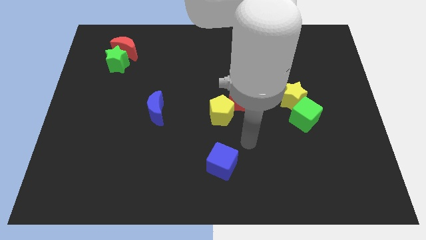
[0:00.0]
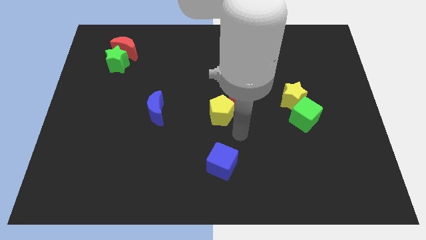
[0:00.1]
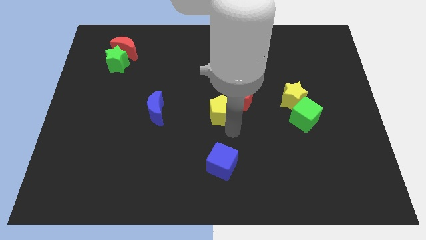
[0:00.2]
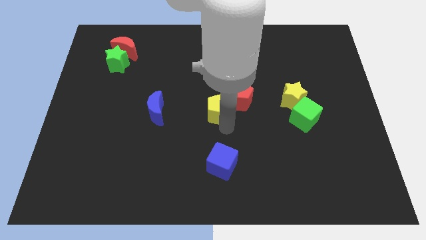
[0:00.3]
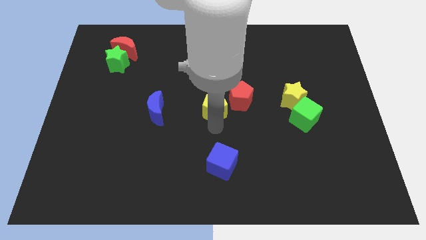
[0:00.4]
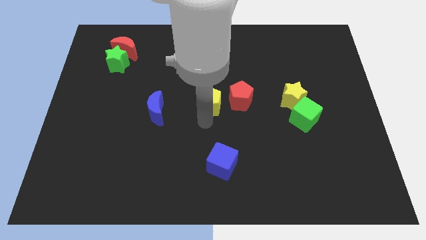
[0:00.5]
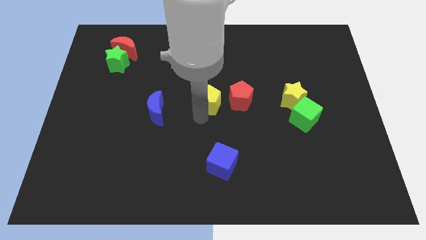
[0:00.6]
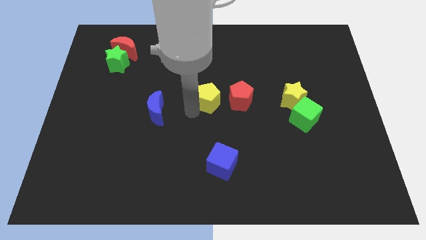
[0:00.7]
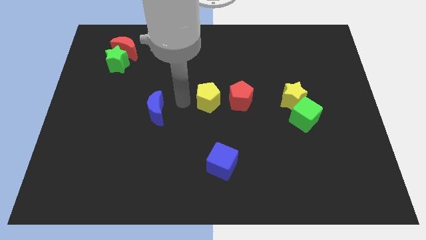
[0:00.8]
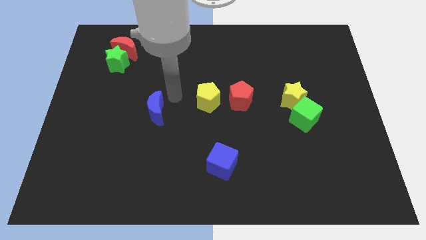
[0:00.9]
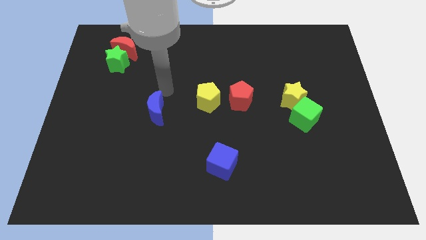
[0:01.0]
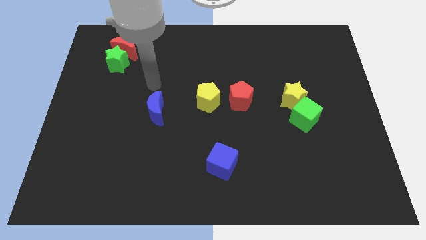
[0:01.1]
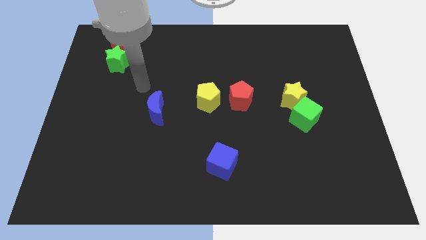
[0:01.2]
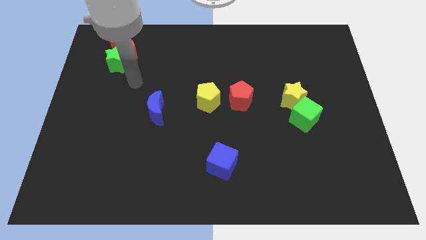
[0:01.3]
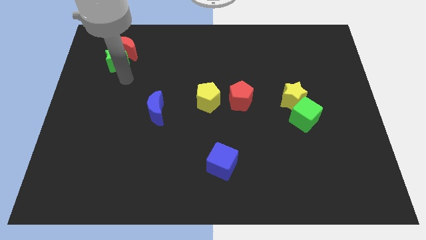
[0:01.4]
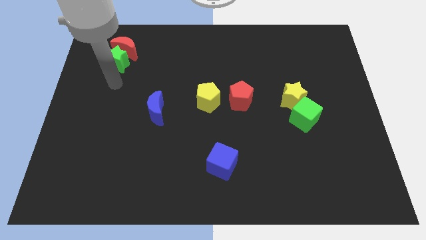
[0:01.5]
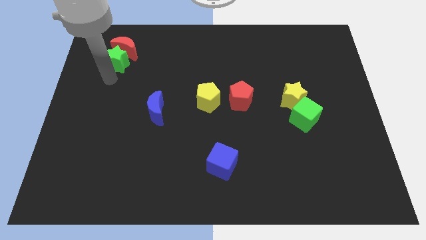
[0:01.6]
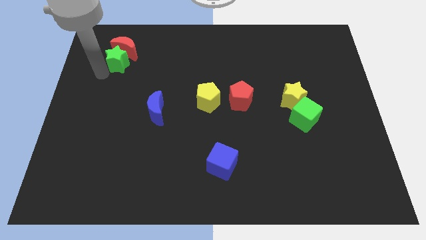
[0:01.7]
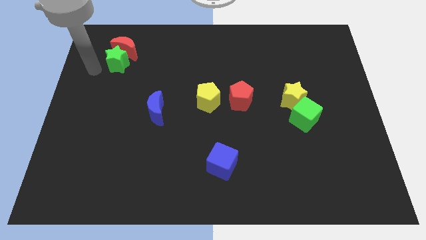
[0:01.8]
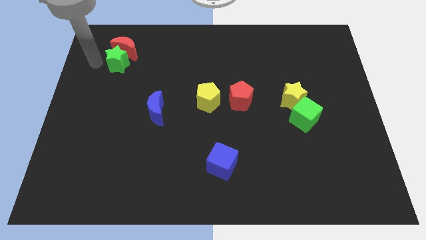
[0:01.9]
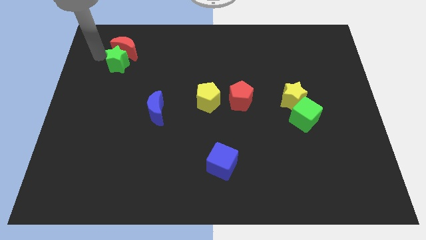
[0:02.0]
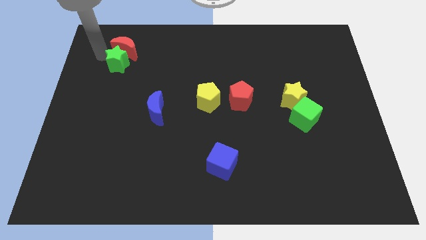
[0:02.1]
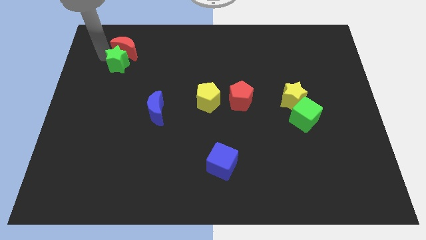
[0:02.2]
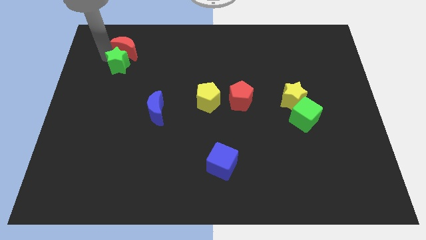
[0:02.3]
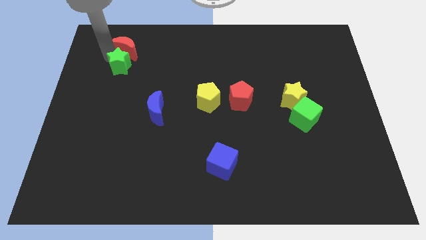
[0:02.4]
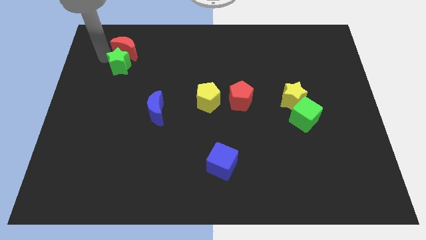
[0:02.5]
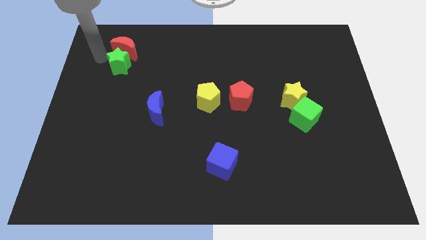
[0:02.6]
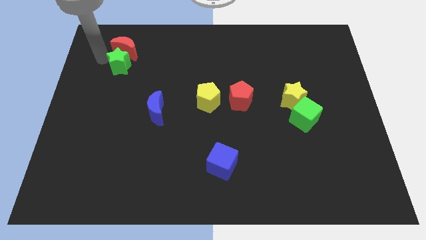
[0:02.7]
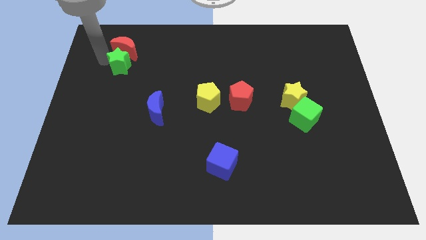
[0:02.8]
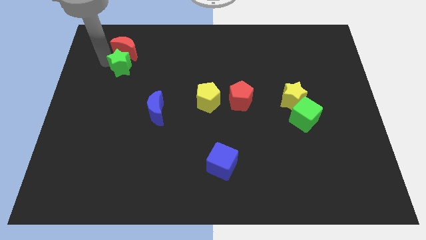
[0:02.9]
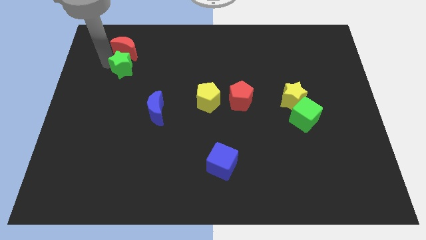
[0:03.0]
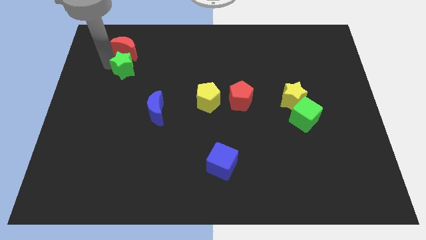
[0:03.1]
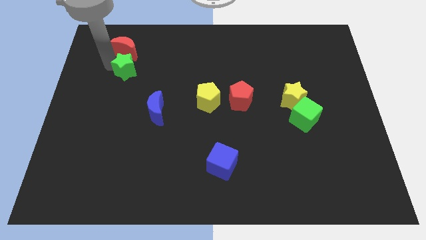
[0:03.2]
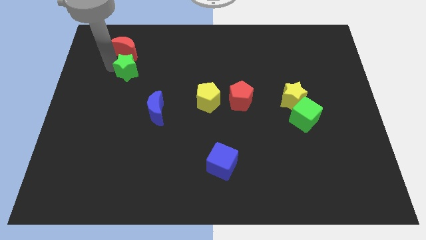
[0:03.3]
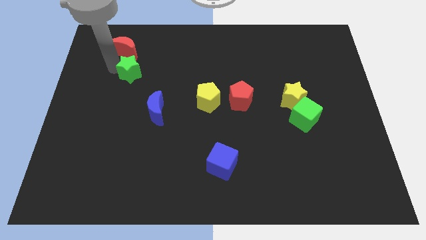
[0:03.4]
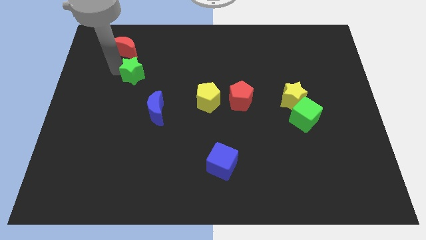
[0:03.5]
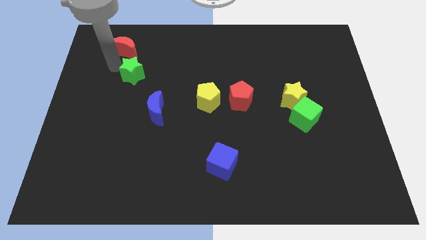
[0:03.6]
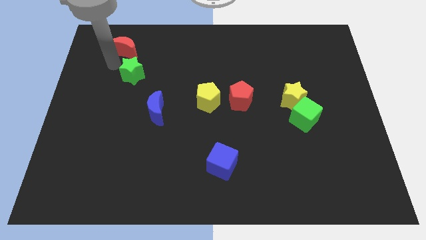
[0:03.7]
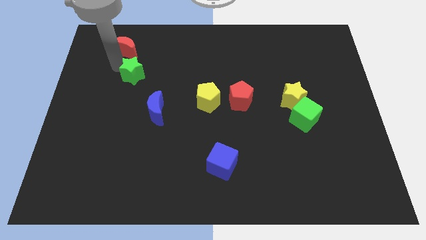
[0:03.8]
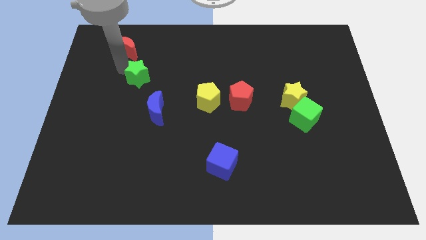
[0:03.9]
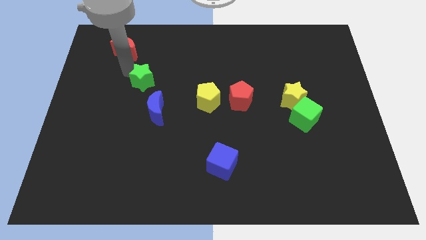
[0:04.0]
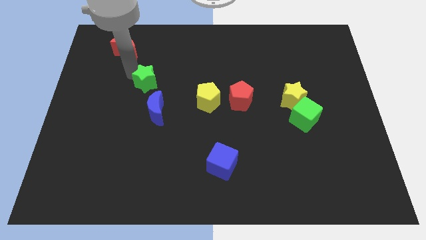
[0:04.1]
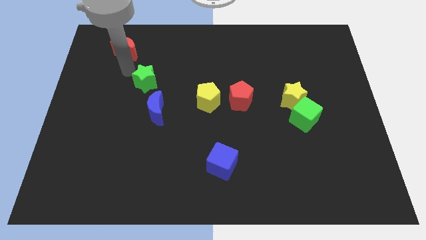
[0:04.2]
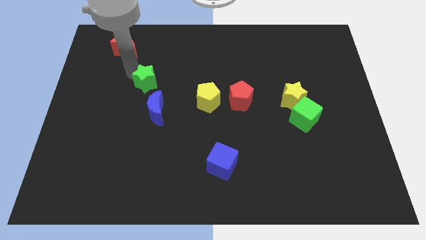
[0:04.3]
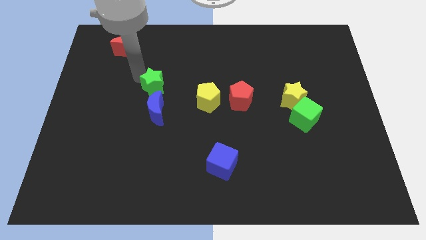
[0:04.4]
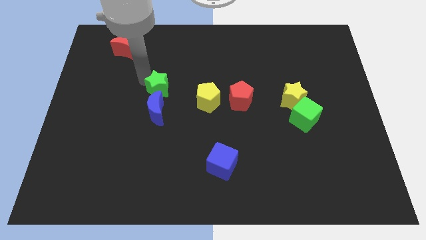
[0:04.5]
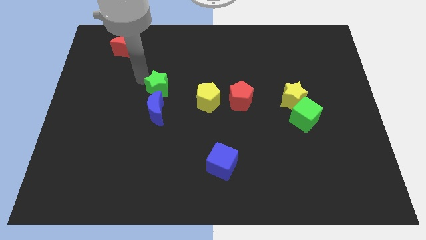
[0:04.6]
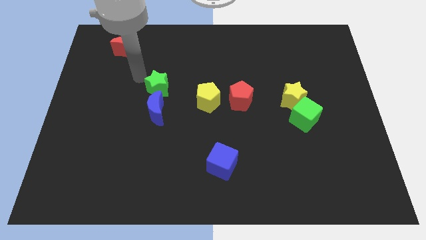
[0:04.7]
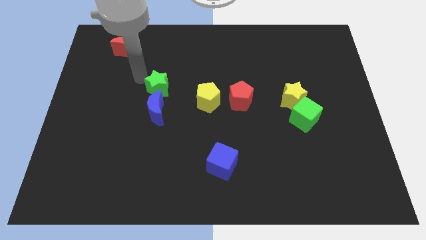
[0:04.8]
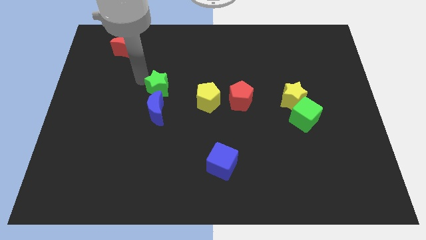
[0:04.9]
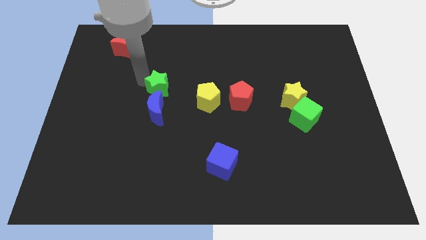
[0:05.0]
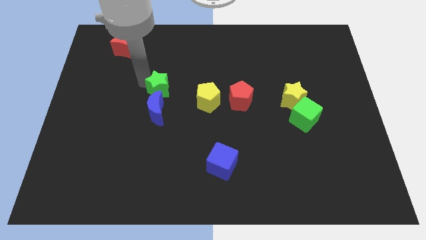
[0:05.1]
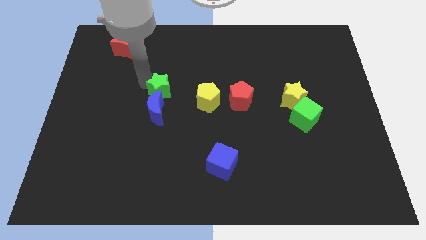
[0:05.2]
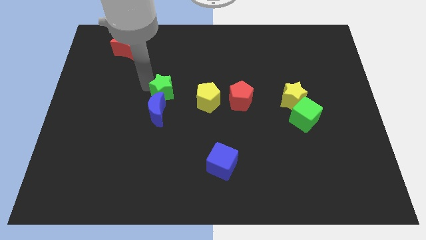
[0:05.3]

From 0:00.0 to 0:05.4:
move the green star to the middle of the board
